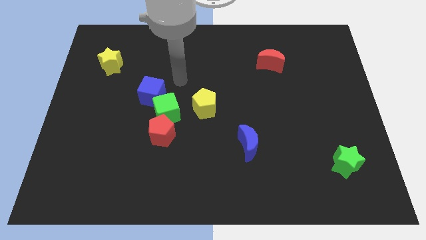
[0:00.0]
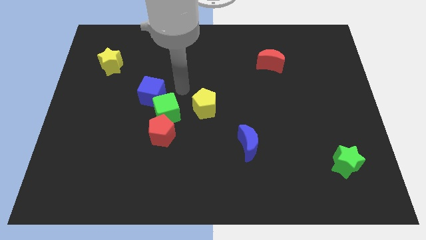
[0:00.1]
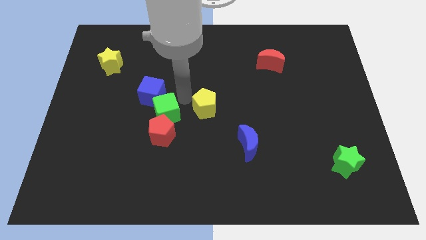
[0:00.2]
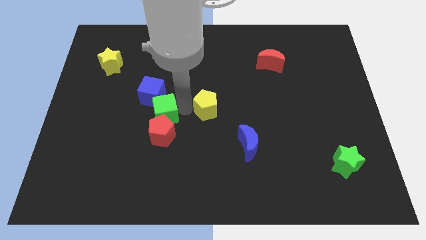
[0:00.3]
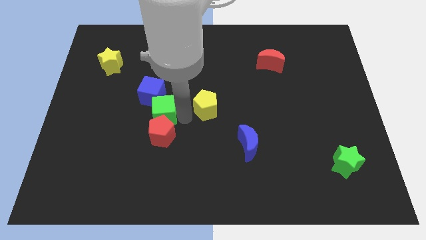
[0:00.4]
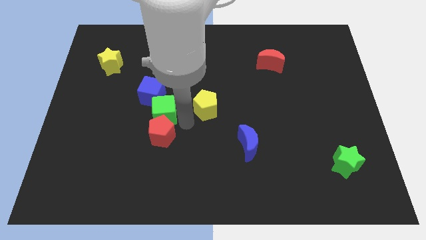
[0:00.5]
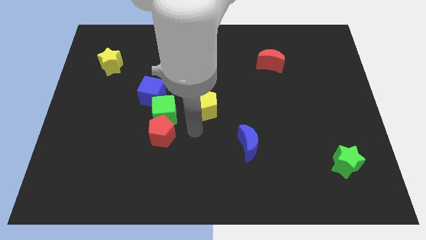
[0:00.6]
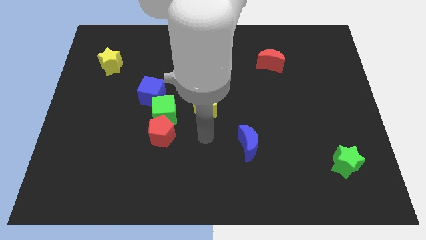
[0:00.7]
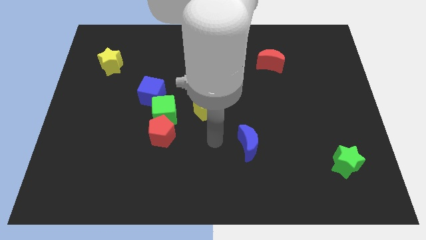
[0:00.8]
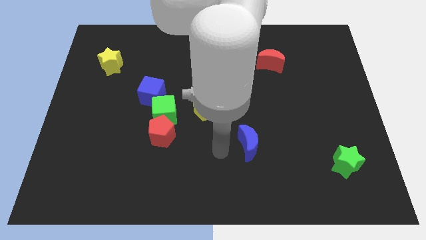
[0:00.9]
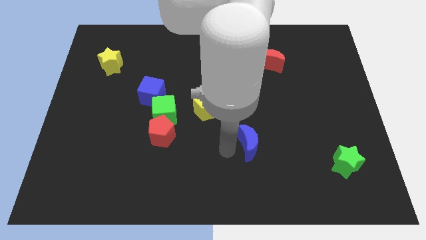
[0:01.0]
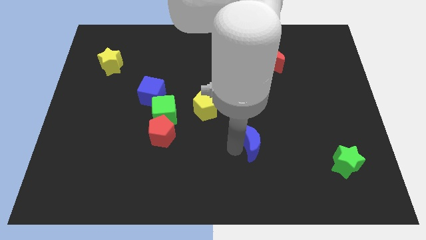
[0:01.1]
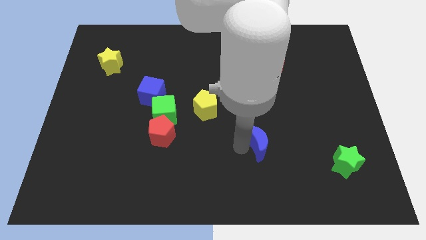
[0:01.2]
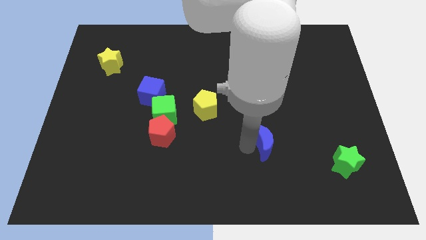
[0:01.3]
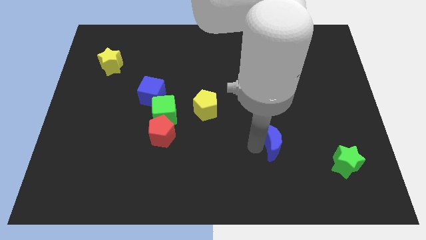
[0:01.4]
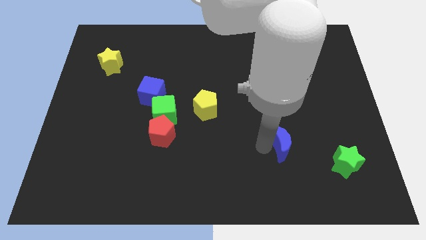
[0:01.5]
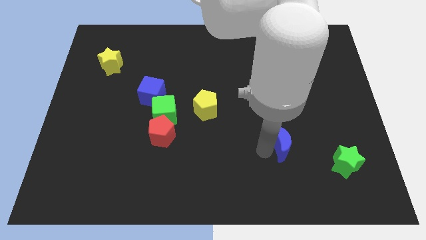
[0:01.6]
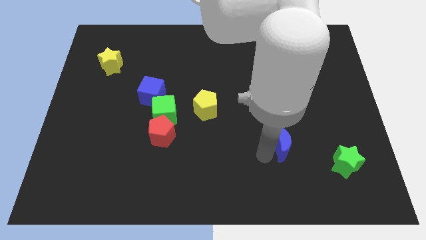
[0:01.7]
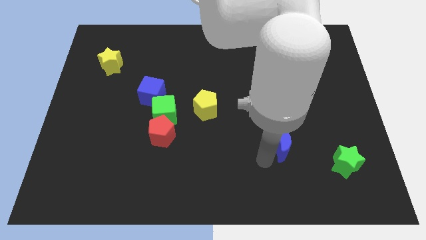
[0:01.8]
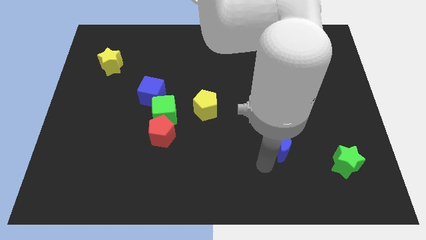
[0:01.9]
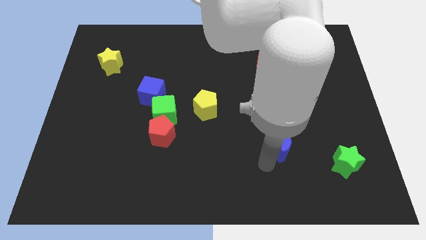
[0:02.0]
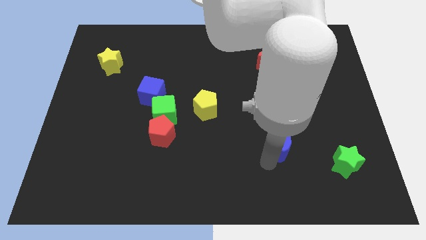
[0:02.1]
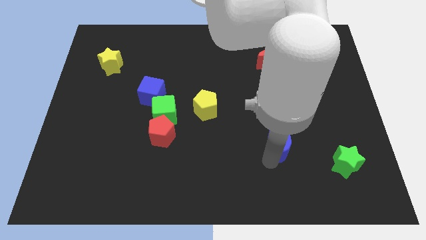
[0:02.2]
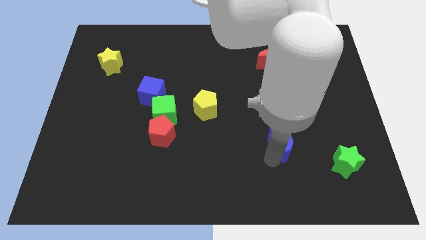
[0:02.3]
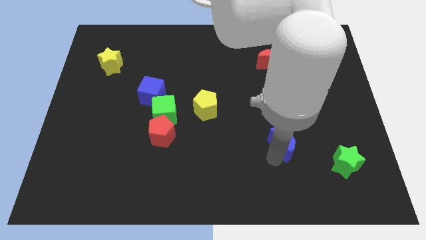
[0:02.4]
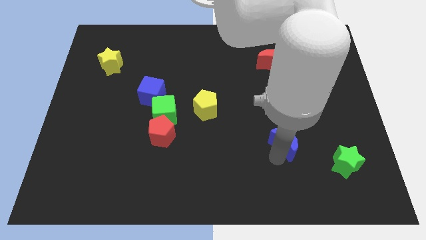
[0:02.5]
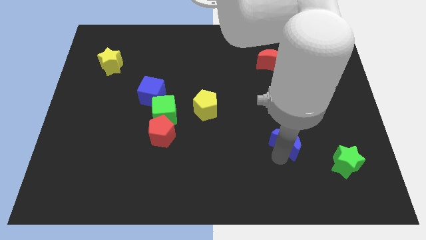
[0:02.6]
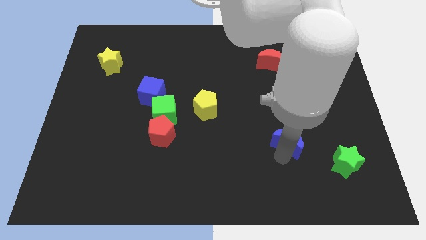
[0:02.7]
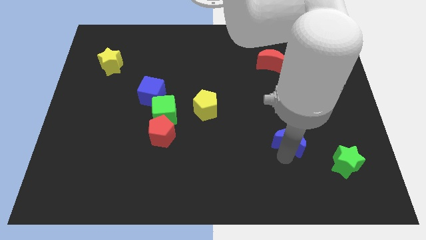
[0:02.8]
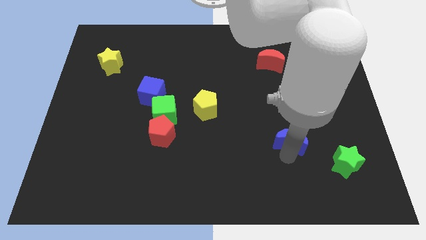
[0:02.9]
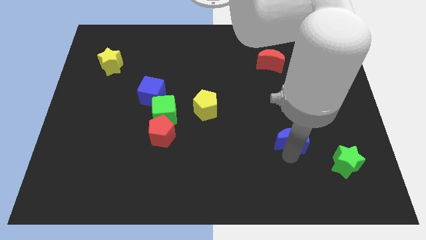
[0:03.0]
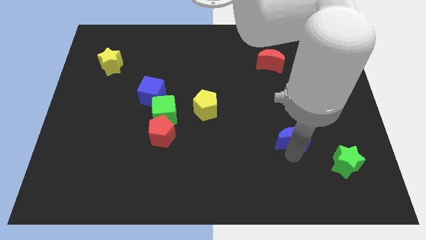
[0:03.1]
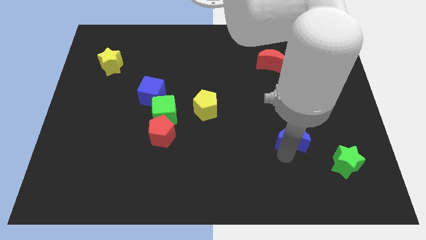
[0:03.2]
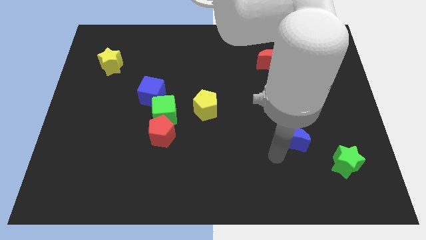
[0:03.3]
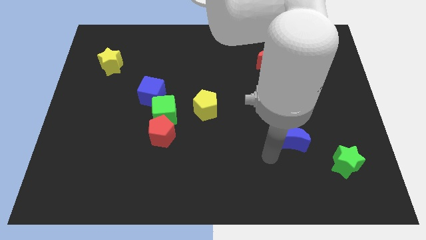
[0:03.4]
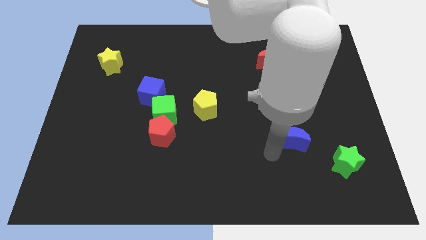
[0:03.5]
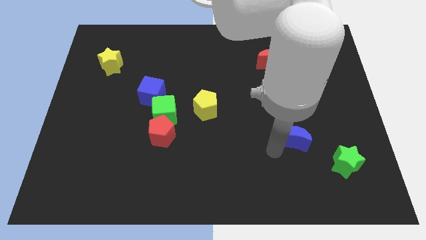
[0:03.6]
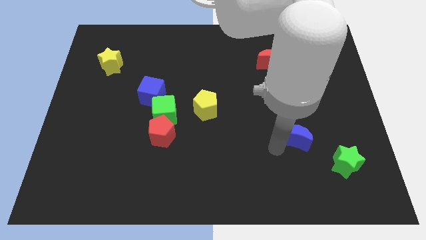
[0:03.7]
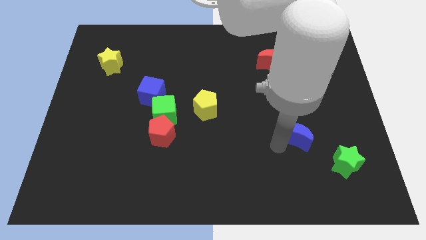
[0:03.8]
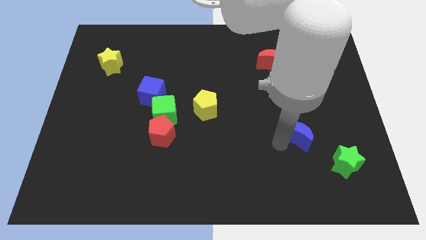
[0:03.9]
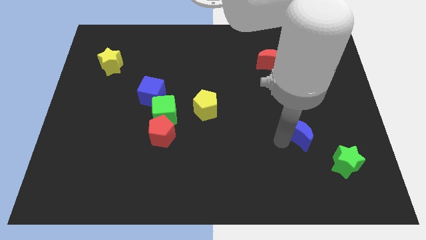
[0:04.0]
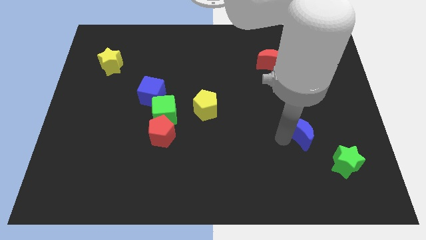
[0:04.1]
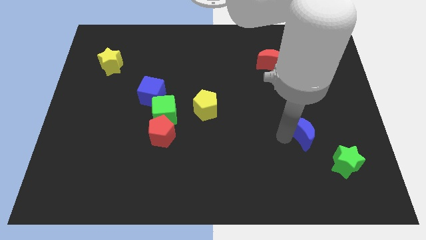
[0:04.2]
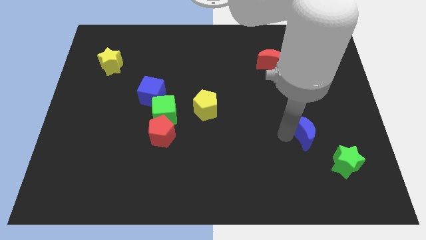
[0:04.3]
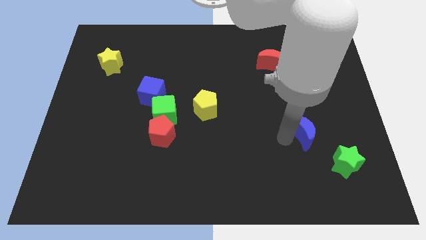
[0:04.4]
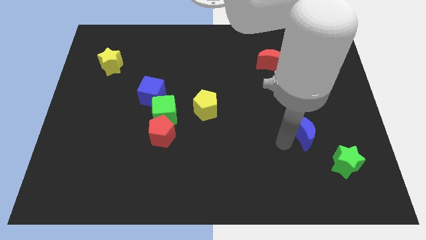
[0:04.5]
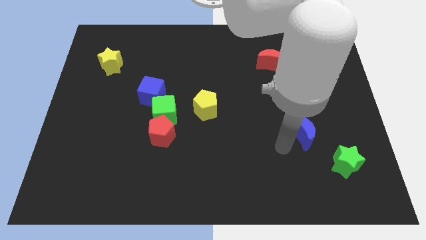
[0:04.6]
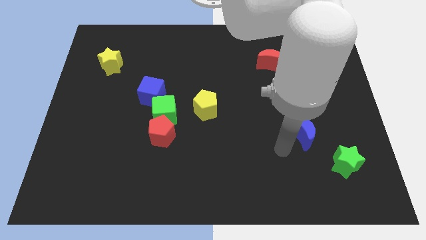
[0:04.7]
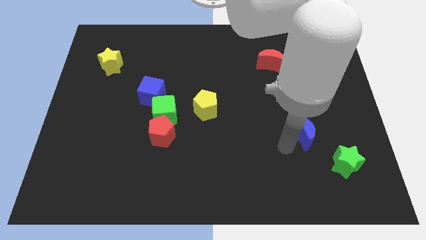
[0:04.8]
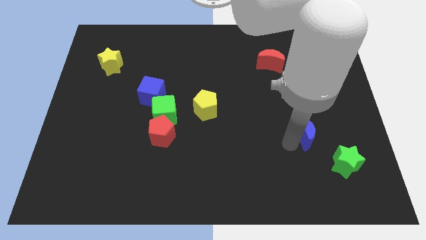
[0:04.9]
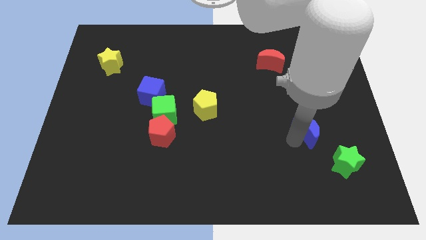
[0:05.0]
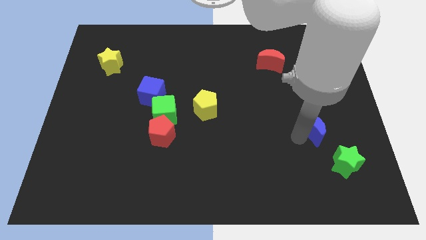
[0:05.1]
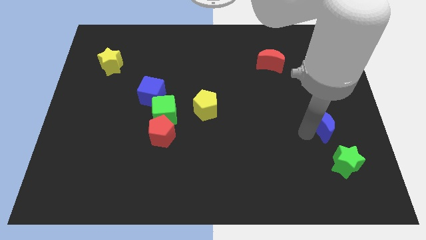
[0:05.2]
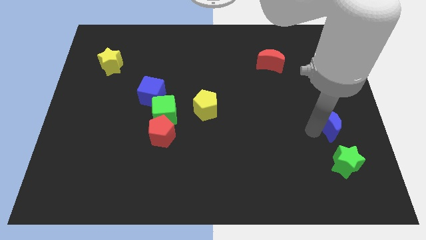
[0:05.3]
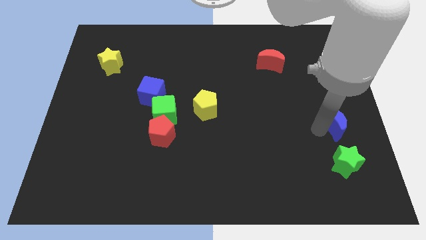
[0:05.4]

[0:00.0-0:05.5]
push the blue moon to the right side
